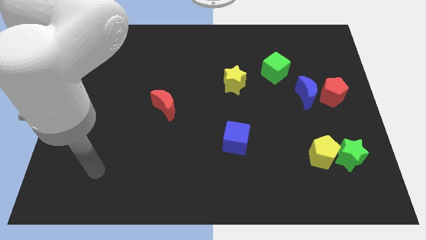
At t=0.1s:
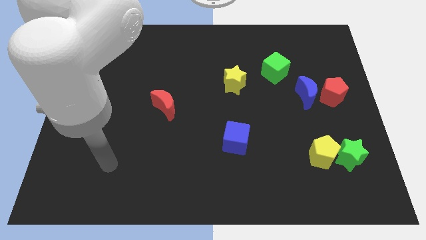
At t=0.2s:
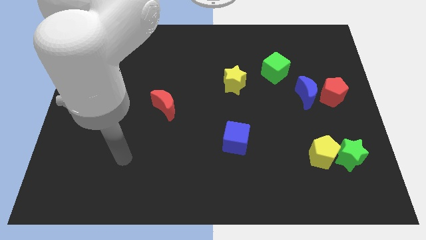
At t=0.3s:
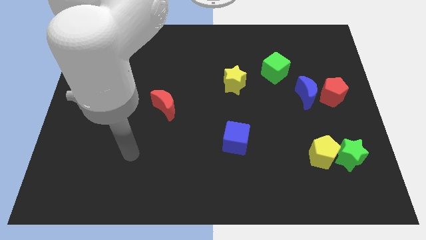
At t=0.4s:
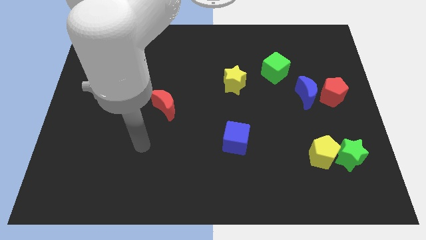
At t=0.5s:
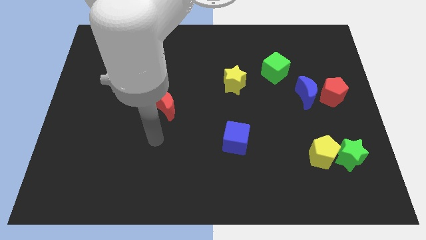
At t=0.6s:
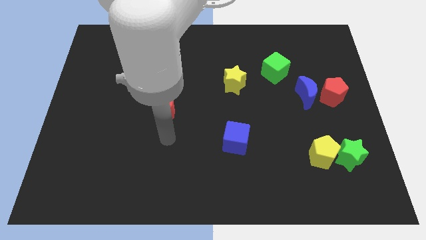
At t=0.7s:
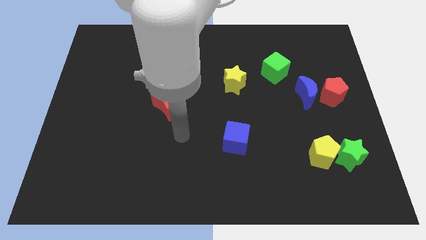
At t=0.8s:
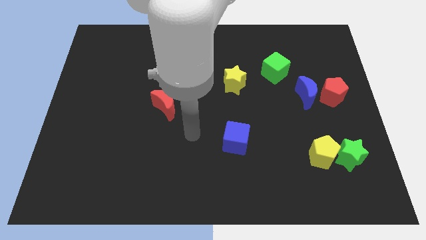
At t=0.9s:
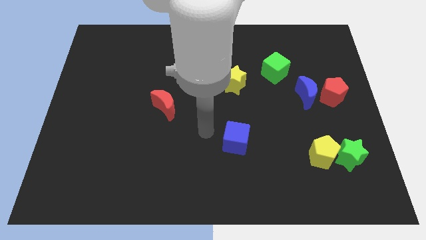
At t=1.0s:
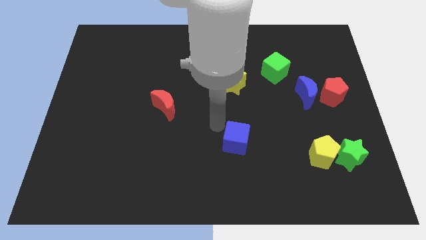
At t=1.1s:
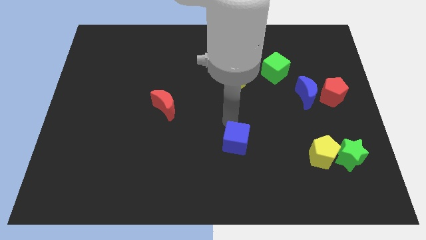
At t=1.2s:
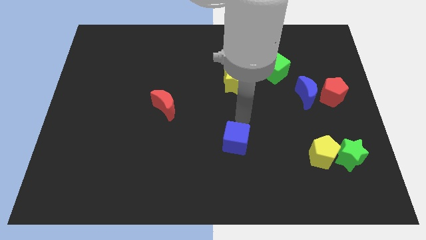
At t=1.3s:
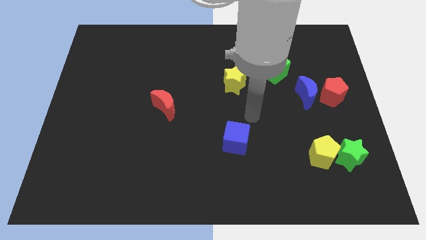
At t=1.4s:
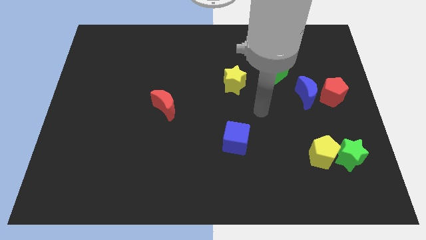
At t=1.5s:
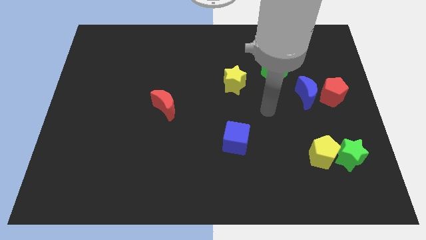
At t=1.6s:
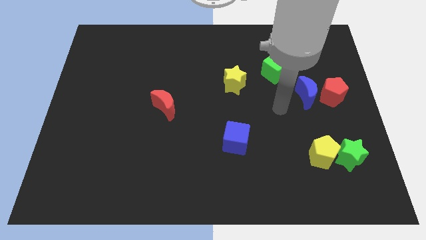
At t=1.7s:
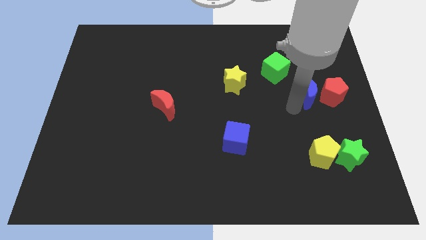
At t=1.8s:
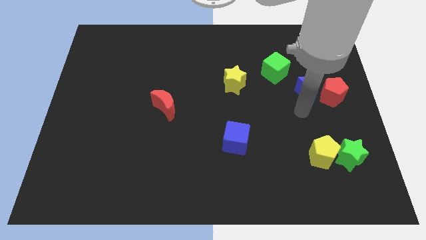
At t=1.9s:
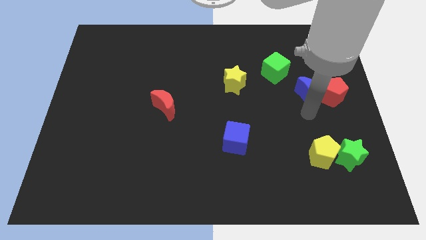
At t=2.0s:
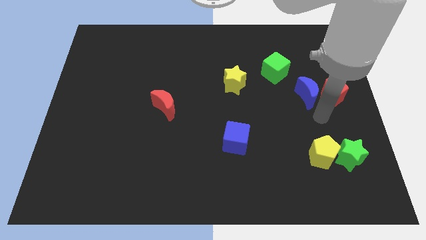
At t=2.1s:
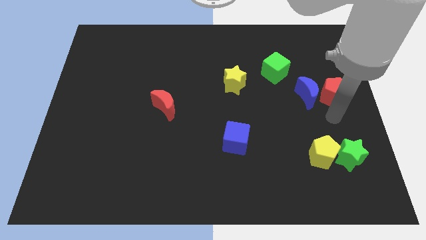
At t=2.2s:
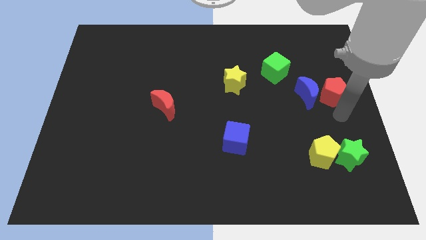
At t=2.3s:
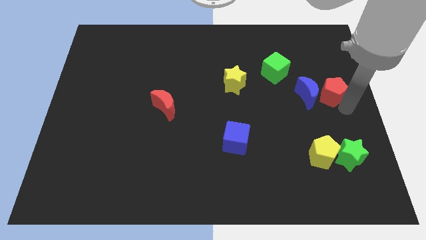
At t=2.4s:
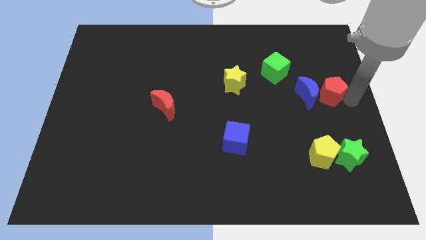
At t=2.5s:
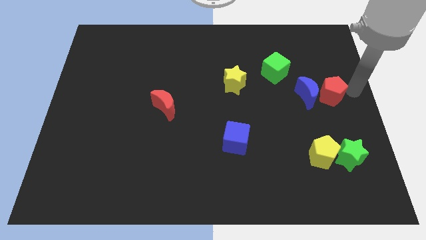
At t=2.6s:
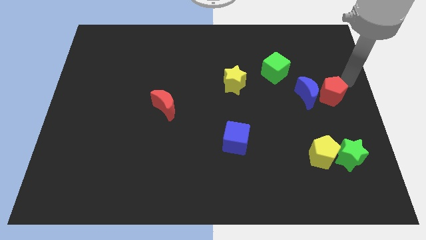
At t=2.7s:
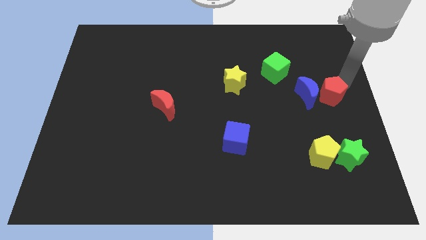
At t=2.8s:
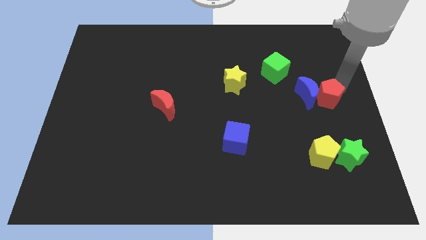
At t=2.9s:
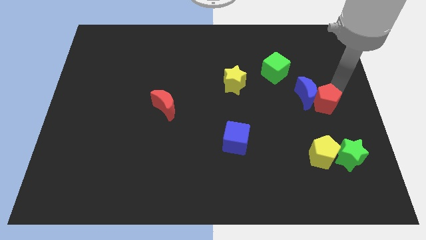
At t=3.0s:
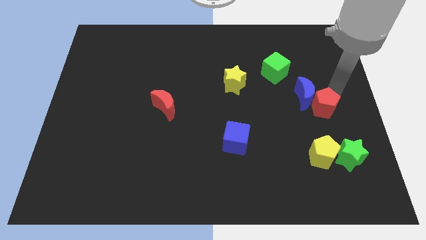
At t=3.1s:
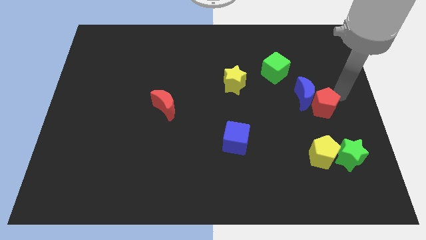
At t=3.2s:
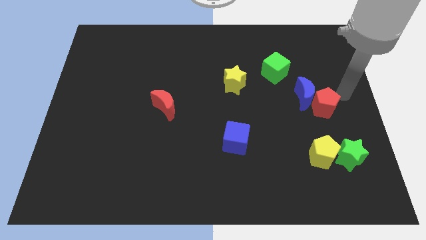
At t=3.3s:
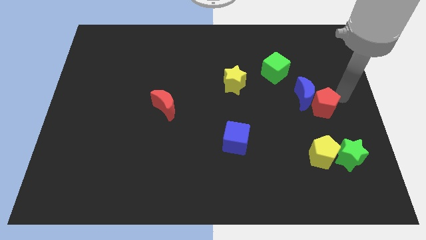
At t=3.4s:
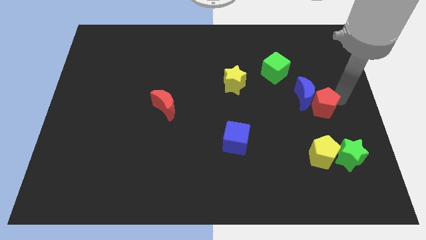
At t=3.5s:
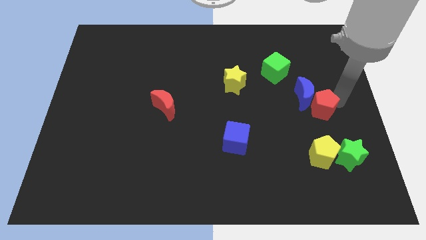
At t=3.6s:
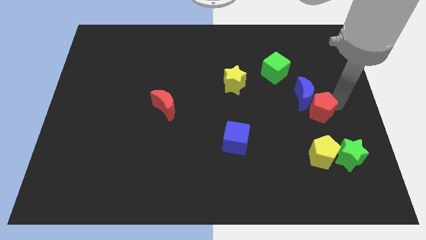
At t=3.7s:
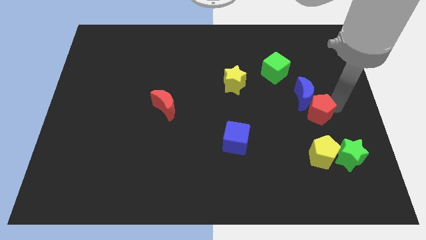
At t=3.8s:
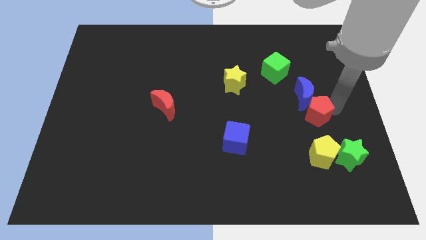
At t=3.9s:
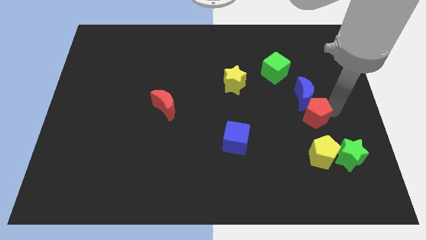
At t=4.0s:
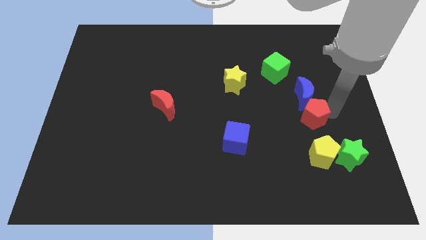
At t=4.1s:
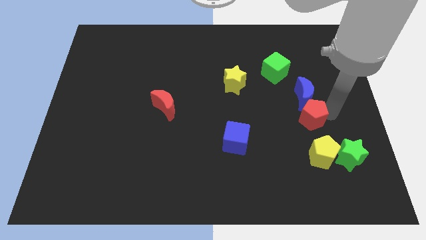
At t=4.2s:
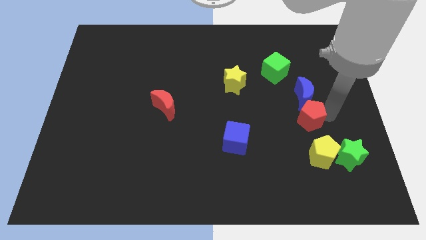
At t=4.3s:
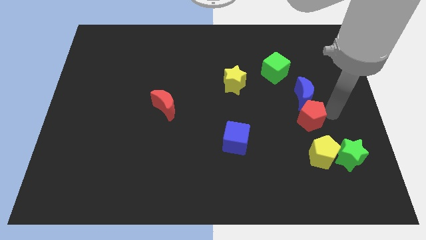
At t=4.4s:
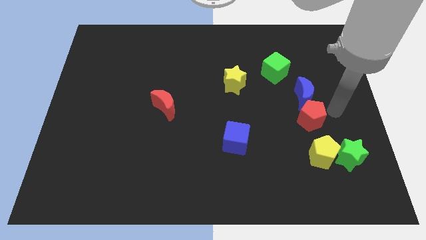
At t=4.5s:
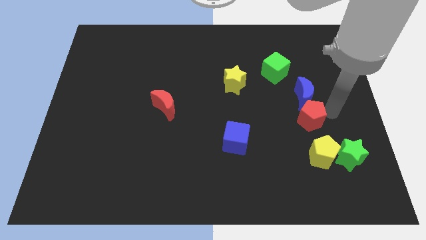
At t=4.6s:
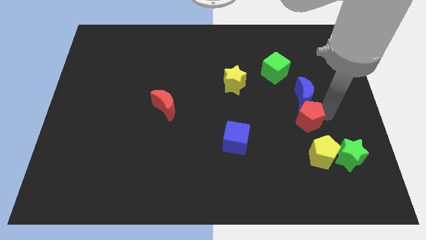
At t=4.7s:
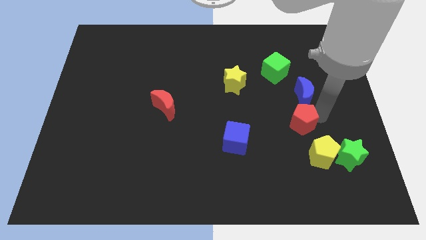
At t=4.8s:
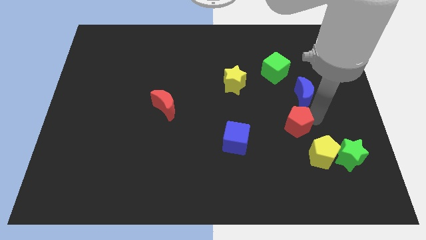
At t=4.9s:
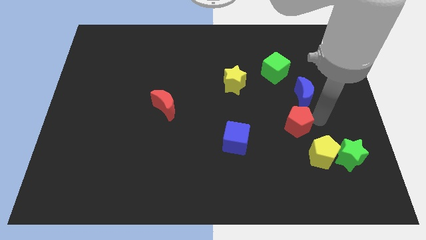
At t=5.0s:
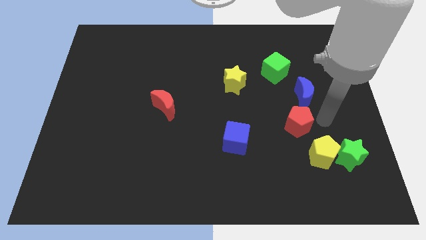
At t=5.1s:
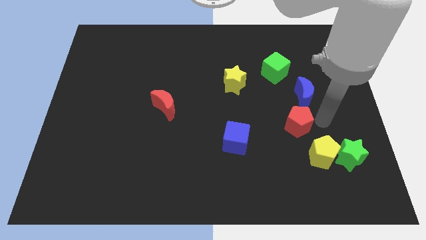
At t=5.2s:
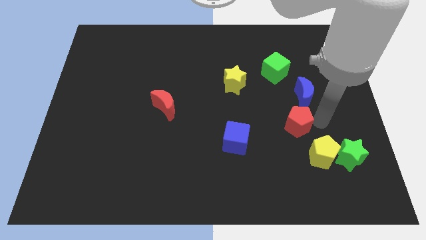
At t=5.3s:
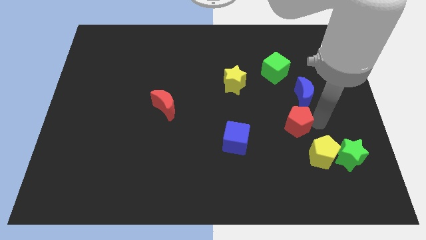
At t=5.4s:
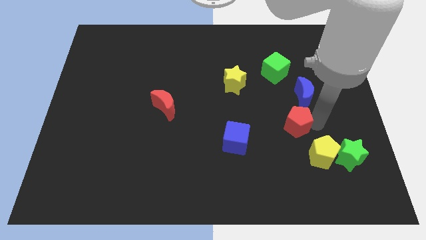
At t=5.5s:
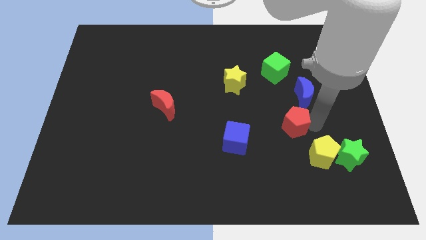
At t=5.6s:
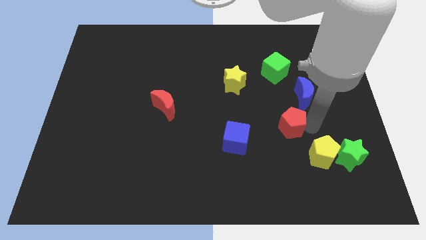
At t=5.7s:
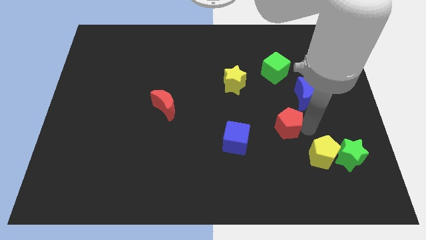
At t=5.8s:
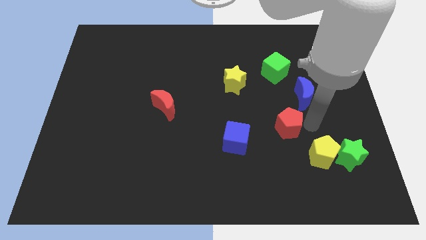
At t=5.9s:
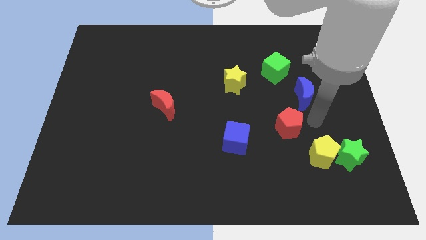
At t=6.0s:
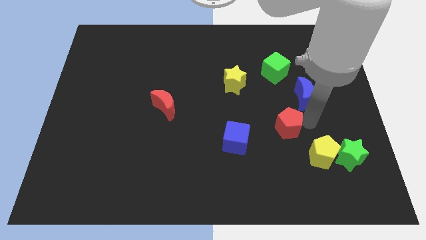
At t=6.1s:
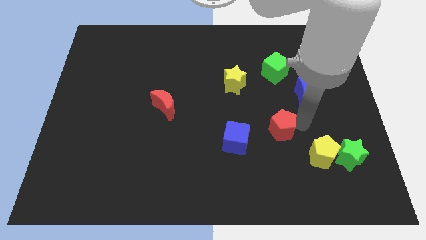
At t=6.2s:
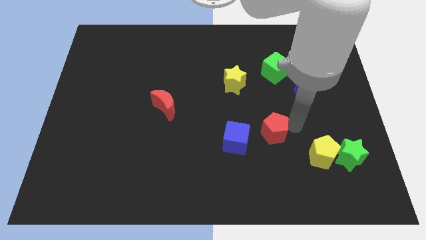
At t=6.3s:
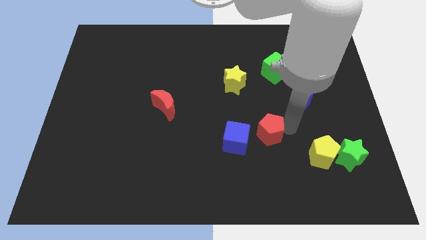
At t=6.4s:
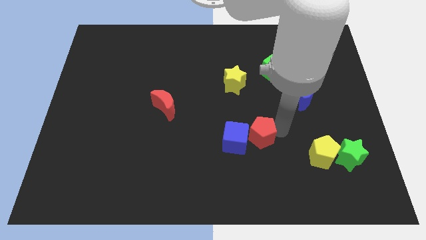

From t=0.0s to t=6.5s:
push the red pentagon towards the blue cube

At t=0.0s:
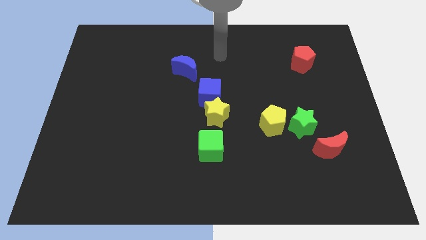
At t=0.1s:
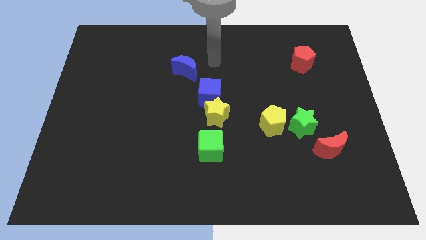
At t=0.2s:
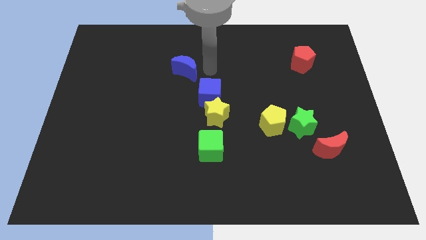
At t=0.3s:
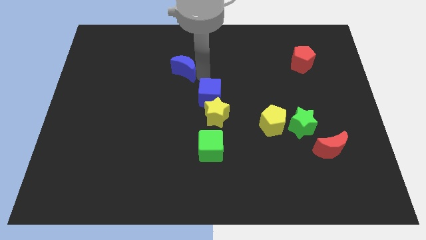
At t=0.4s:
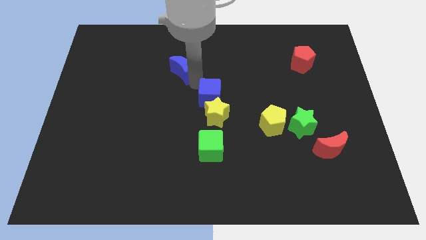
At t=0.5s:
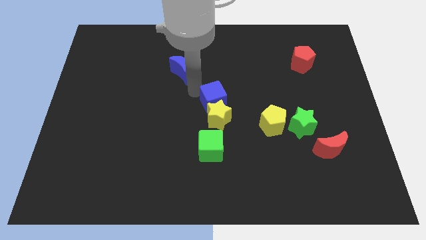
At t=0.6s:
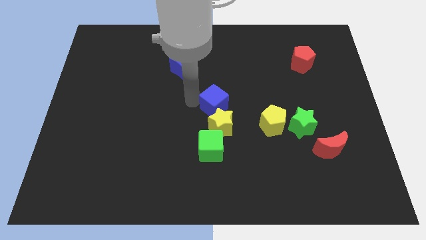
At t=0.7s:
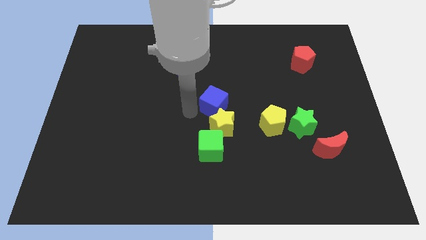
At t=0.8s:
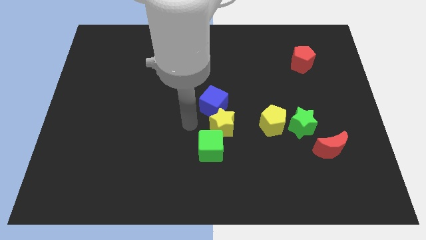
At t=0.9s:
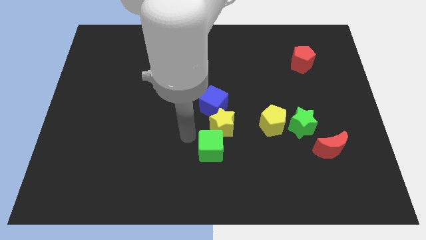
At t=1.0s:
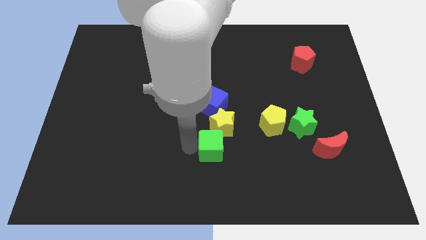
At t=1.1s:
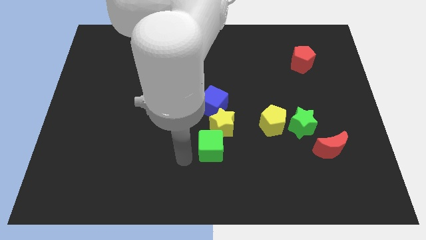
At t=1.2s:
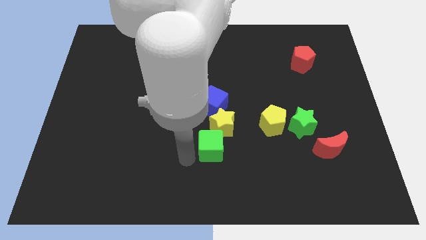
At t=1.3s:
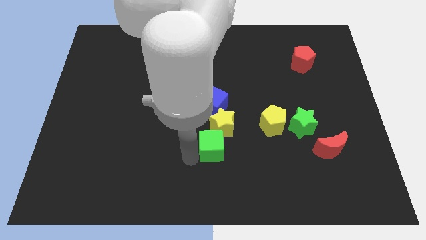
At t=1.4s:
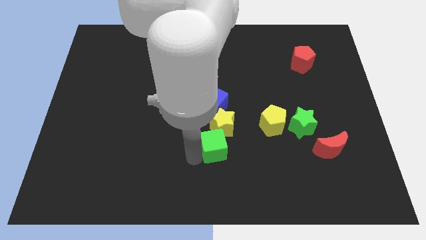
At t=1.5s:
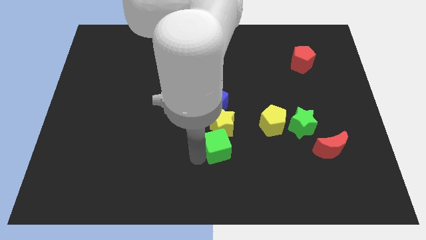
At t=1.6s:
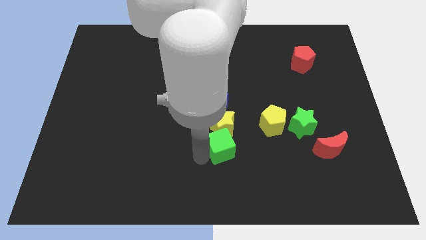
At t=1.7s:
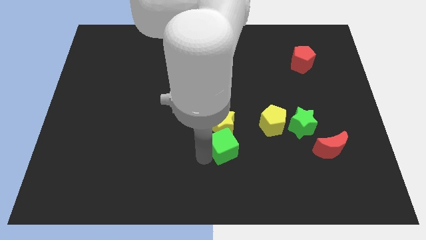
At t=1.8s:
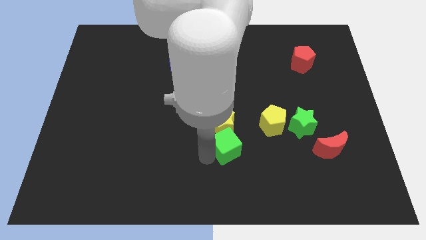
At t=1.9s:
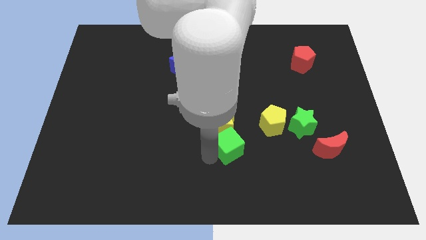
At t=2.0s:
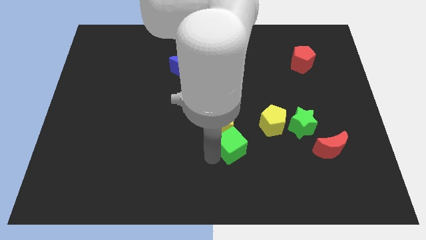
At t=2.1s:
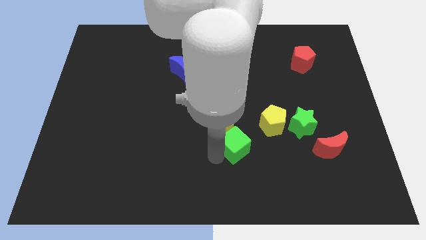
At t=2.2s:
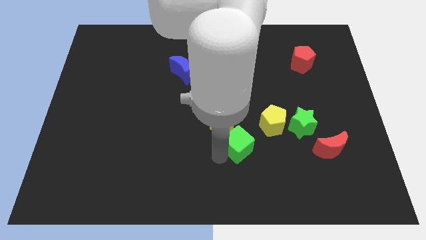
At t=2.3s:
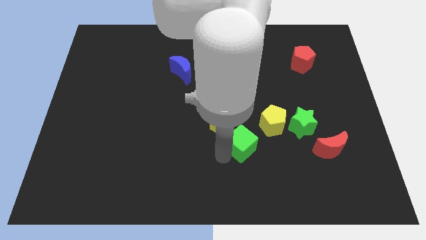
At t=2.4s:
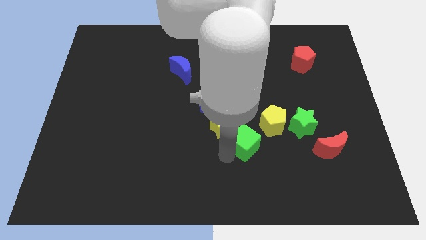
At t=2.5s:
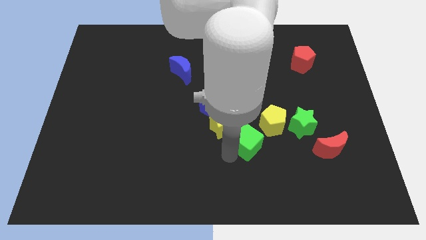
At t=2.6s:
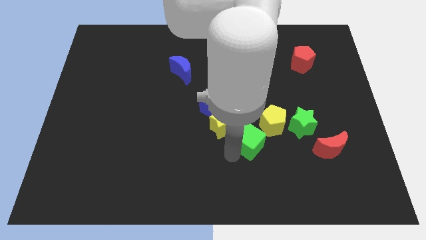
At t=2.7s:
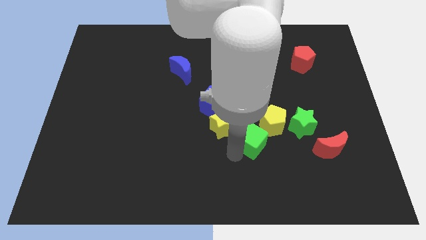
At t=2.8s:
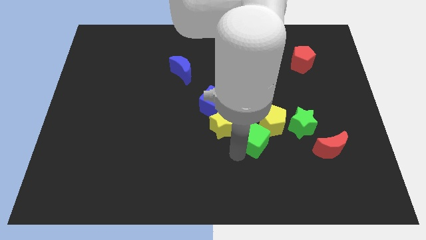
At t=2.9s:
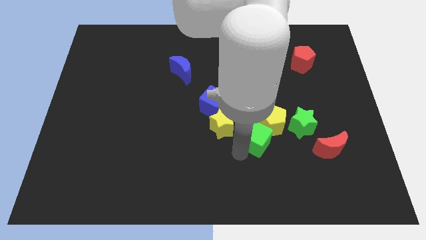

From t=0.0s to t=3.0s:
push the green cube towards the yellow pentagon
